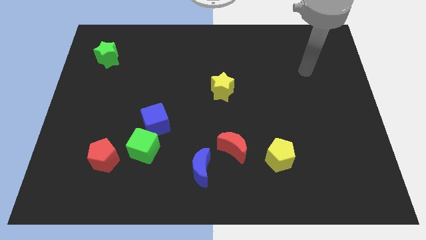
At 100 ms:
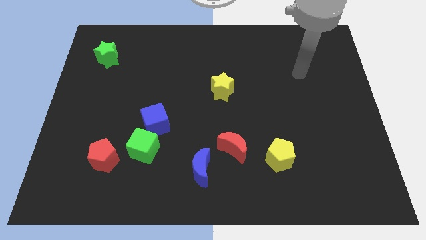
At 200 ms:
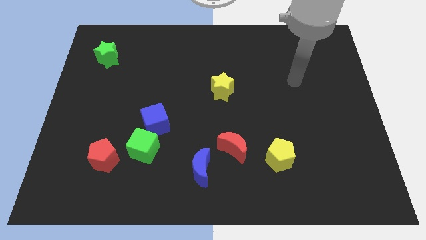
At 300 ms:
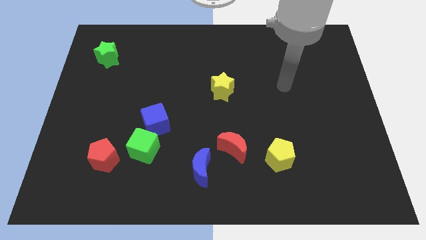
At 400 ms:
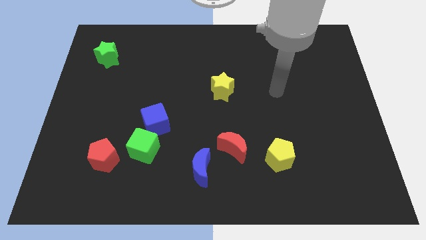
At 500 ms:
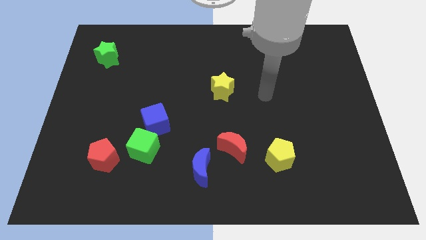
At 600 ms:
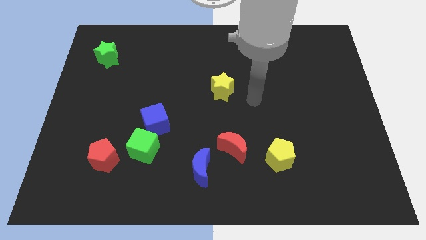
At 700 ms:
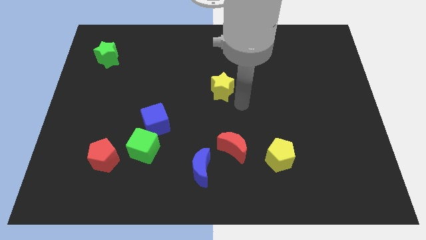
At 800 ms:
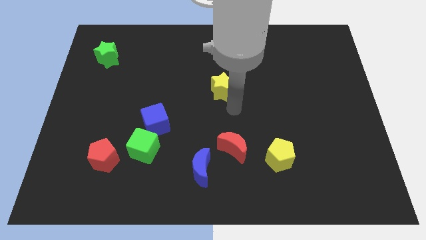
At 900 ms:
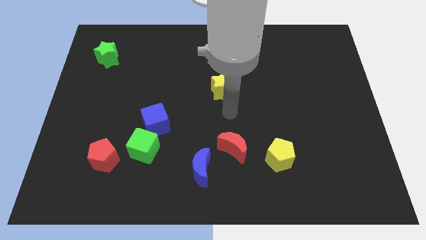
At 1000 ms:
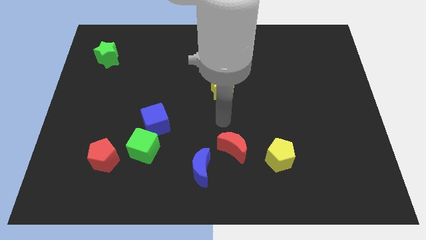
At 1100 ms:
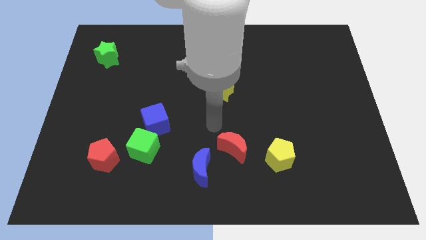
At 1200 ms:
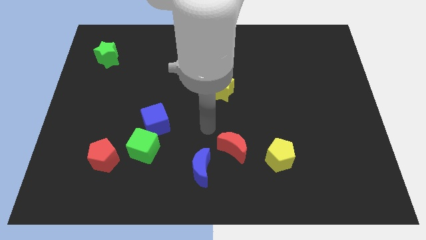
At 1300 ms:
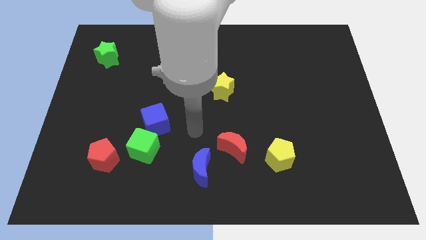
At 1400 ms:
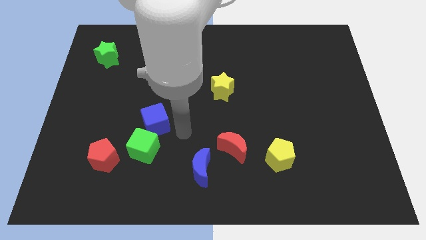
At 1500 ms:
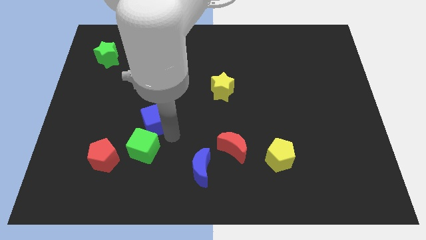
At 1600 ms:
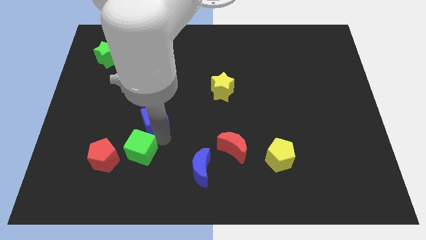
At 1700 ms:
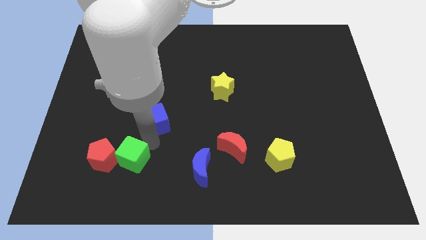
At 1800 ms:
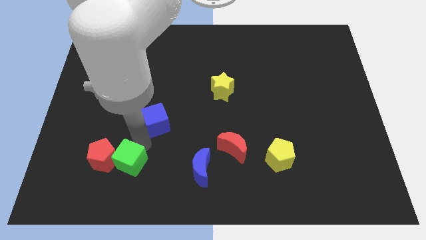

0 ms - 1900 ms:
separate the blue cube from the green cube

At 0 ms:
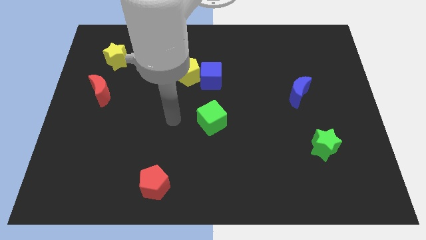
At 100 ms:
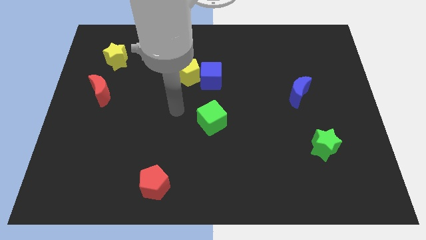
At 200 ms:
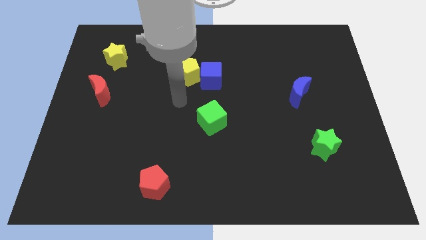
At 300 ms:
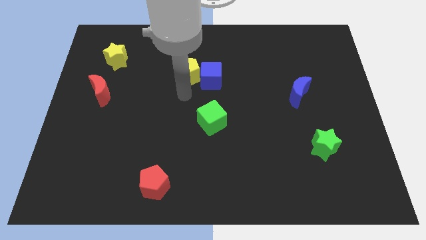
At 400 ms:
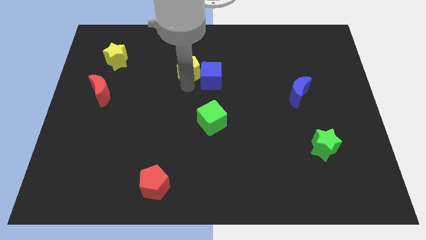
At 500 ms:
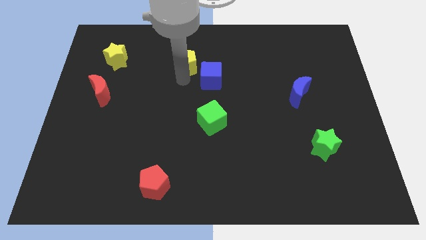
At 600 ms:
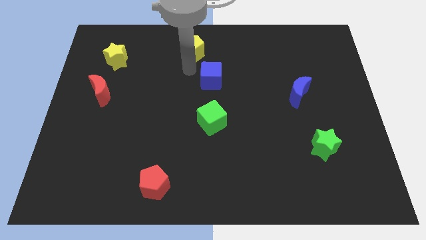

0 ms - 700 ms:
pull the blue cube apart from the yellow pentagon

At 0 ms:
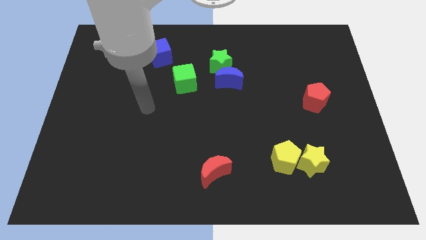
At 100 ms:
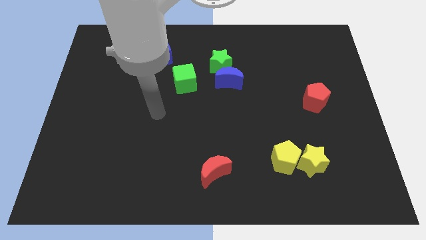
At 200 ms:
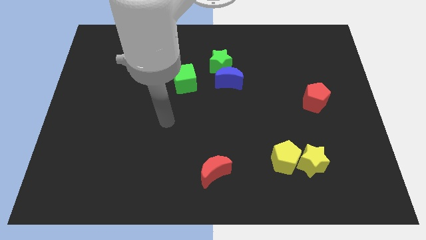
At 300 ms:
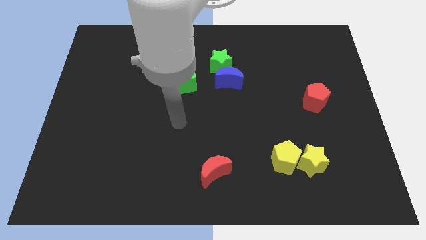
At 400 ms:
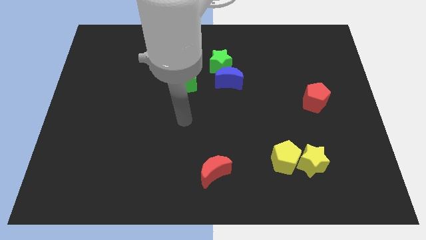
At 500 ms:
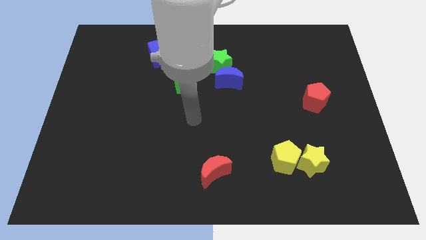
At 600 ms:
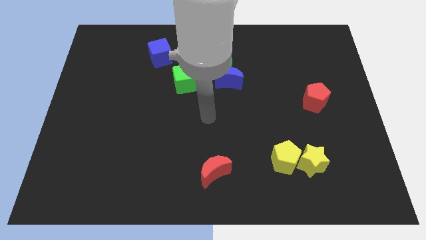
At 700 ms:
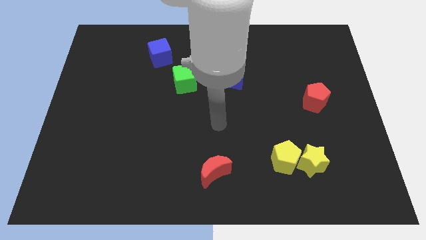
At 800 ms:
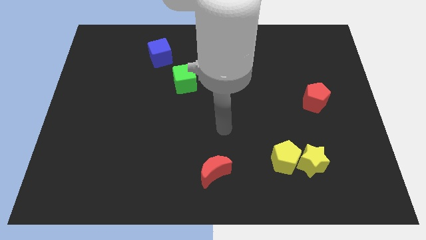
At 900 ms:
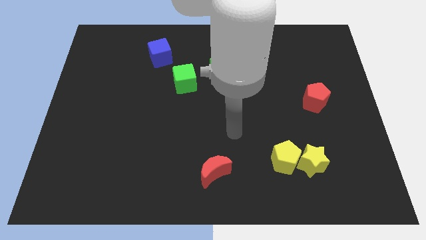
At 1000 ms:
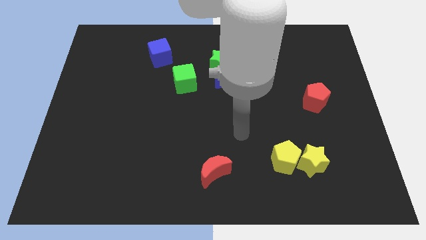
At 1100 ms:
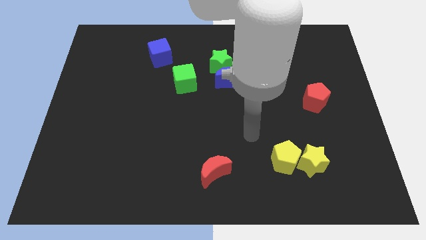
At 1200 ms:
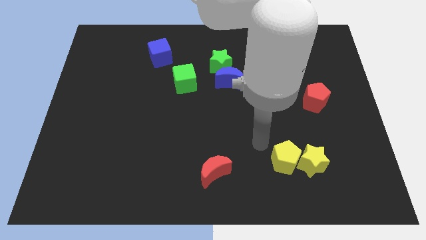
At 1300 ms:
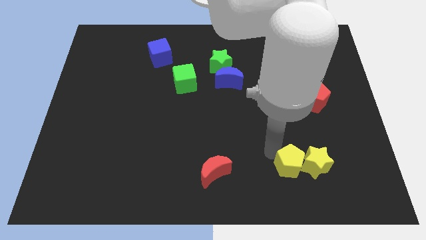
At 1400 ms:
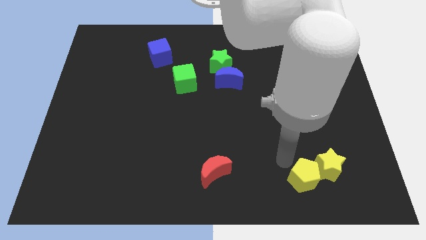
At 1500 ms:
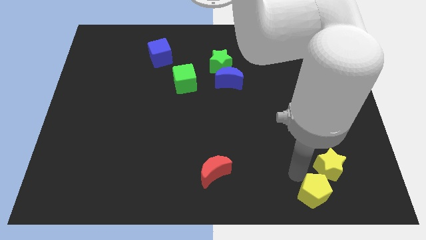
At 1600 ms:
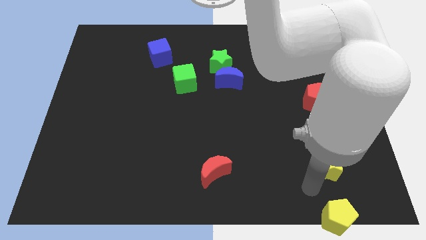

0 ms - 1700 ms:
move the yellow star away from the yellow pentagon

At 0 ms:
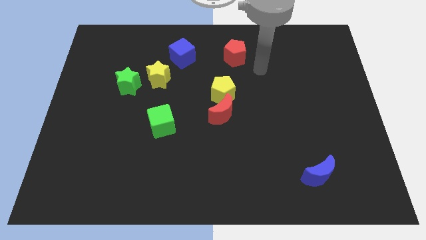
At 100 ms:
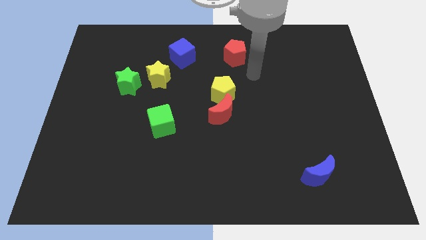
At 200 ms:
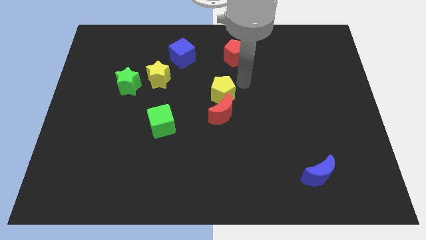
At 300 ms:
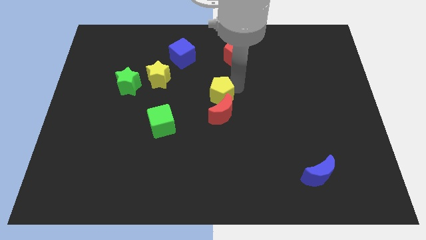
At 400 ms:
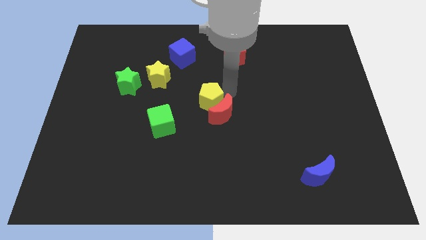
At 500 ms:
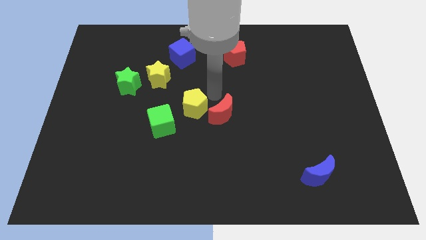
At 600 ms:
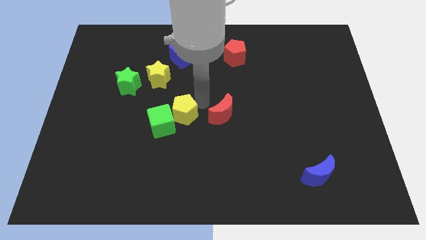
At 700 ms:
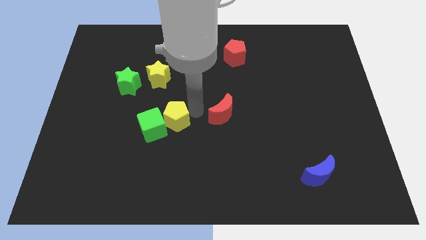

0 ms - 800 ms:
move the red moon away from the yellow pentagon

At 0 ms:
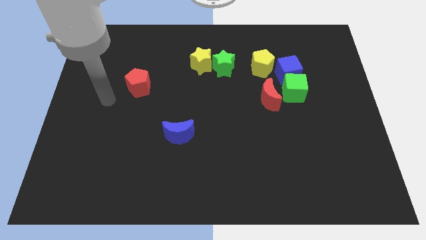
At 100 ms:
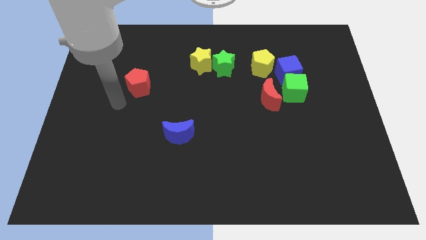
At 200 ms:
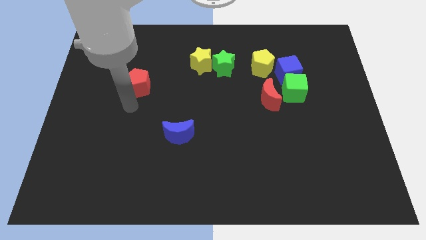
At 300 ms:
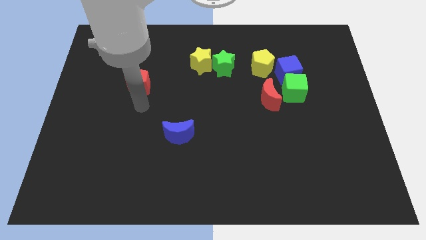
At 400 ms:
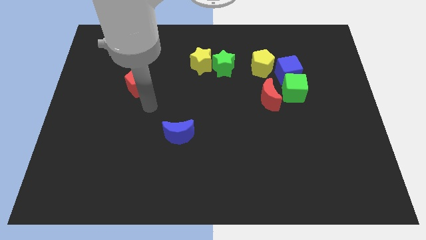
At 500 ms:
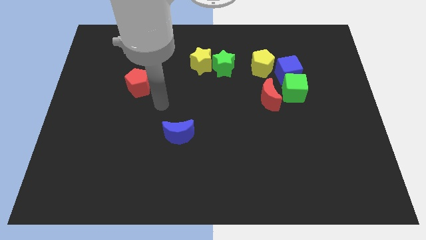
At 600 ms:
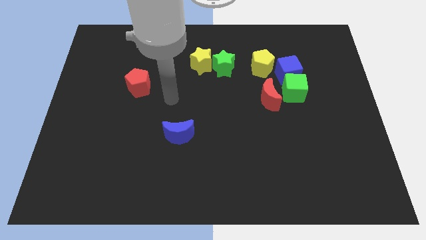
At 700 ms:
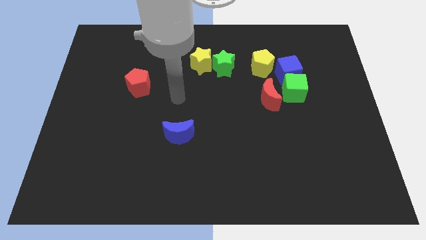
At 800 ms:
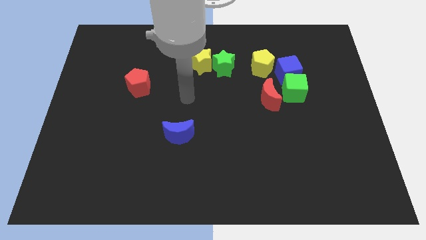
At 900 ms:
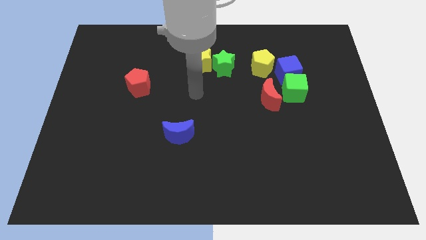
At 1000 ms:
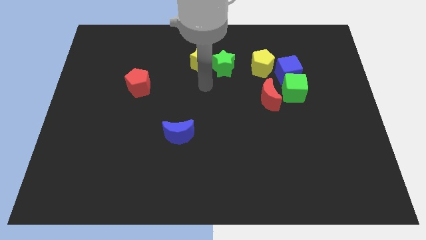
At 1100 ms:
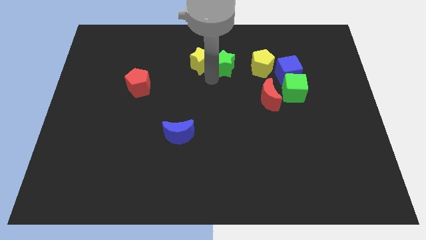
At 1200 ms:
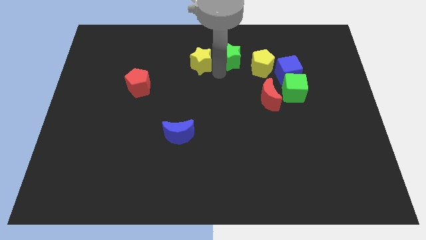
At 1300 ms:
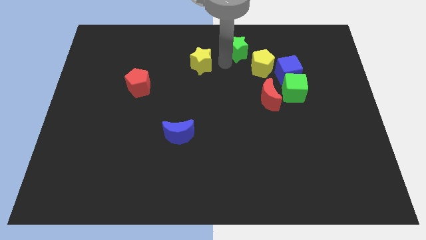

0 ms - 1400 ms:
pull the yellow star apart from the green star

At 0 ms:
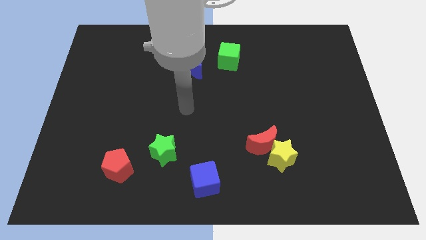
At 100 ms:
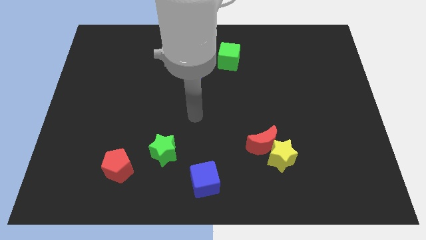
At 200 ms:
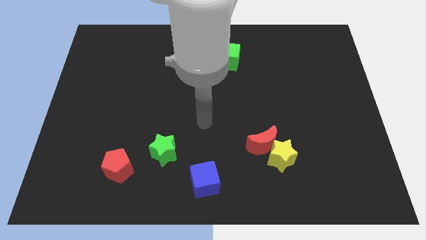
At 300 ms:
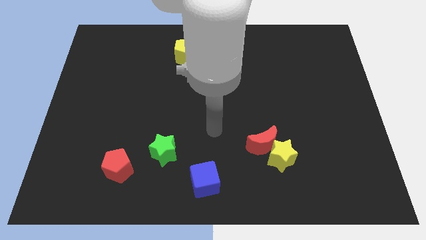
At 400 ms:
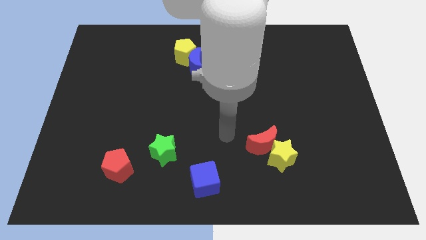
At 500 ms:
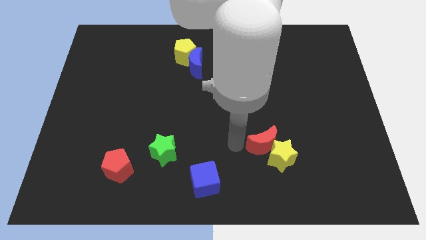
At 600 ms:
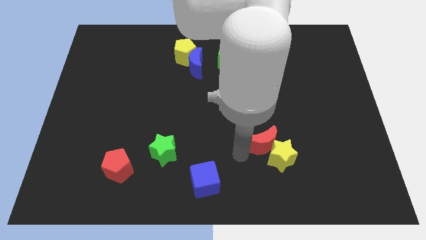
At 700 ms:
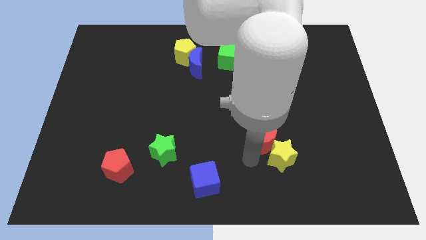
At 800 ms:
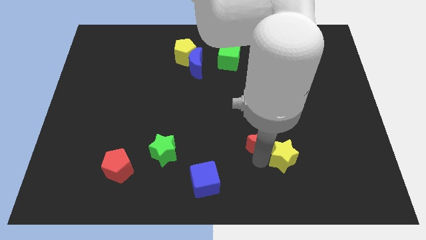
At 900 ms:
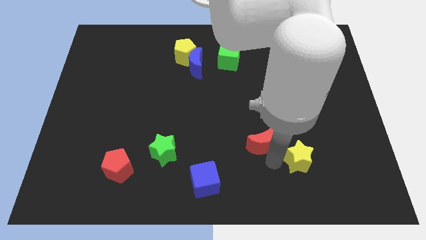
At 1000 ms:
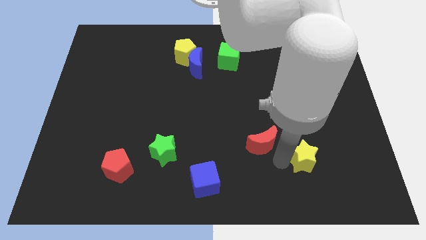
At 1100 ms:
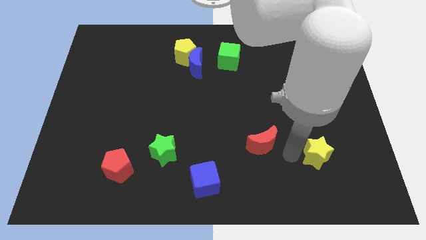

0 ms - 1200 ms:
pull the red moon apart from the yellow star

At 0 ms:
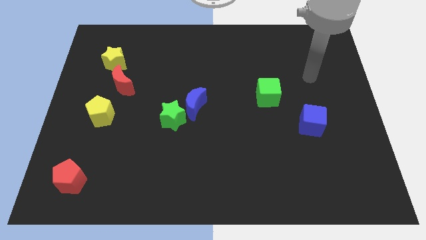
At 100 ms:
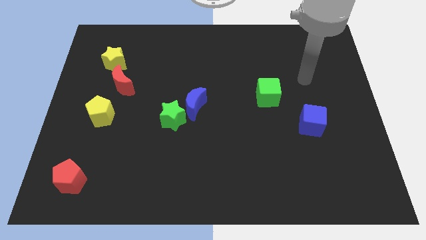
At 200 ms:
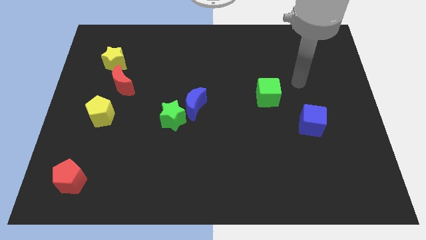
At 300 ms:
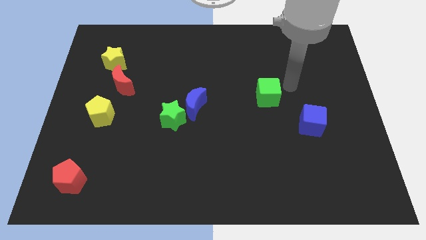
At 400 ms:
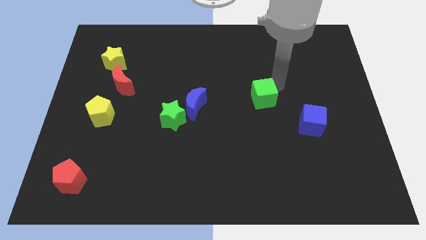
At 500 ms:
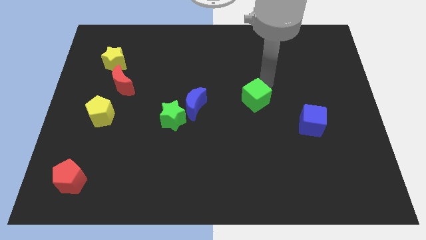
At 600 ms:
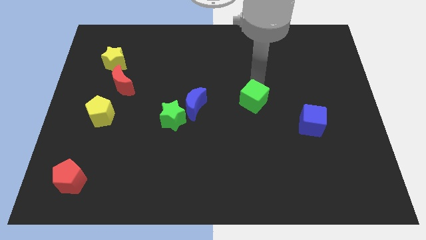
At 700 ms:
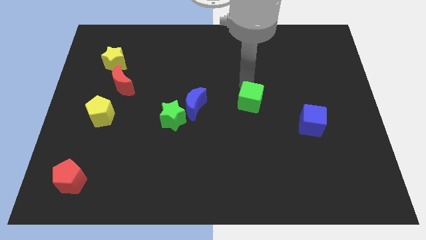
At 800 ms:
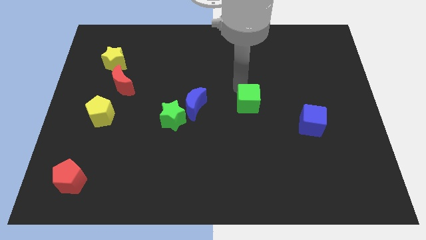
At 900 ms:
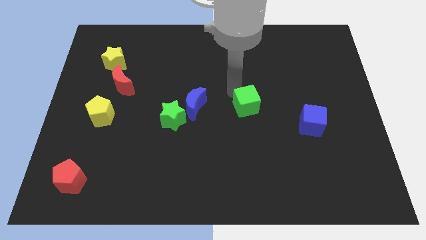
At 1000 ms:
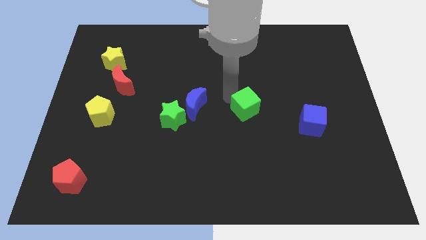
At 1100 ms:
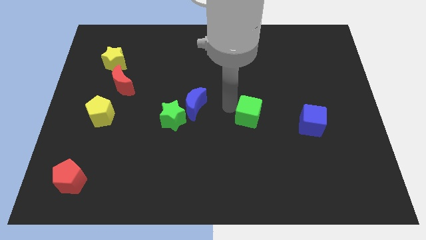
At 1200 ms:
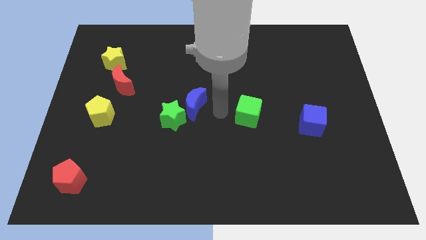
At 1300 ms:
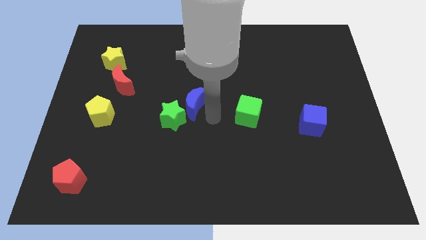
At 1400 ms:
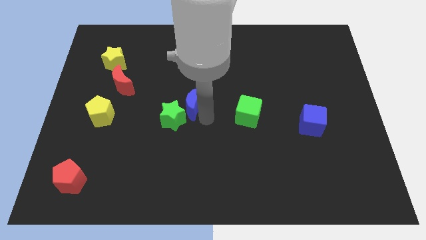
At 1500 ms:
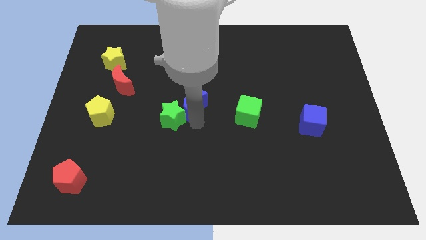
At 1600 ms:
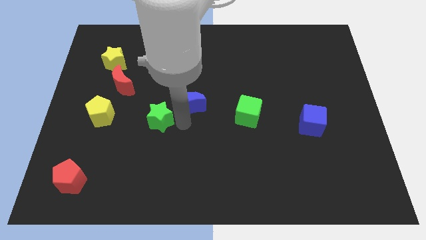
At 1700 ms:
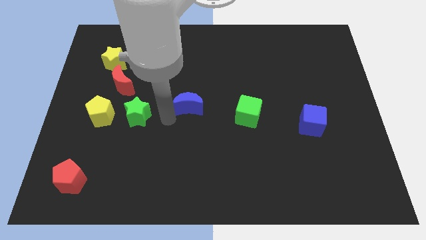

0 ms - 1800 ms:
pull the blue moon apart from the green star
